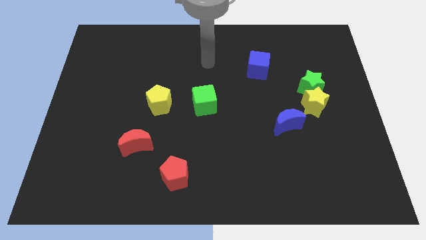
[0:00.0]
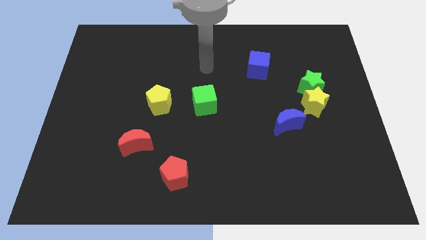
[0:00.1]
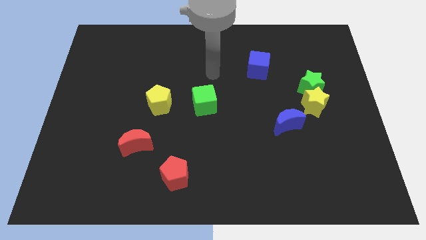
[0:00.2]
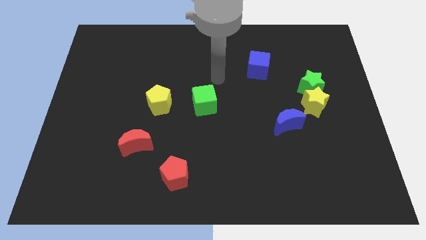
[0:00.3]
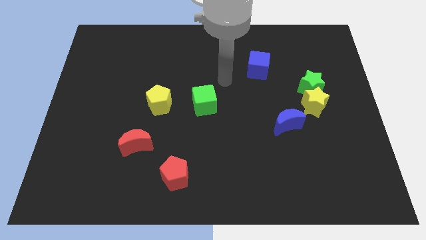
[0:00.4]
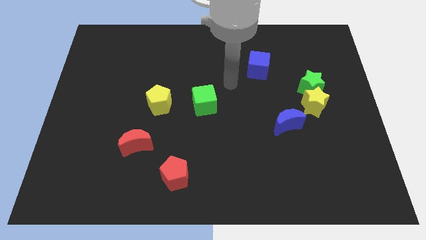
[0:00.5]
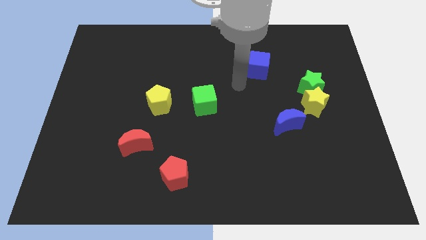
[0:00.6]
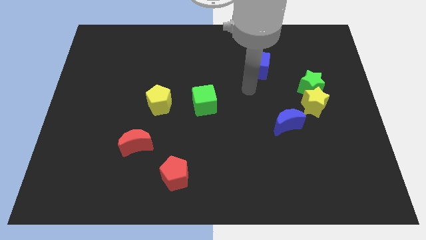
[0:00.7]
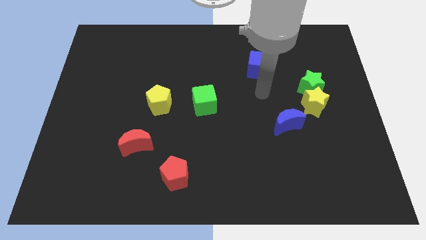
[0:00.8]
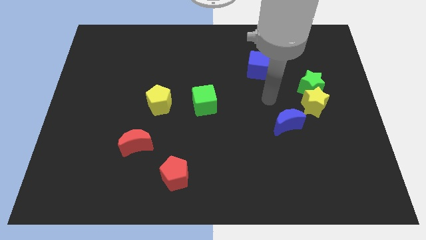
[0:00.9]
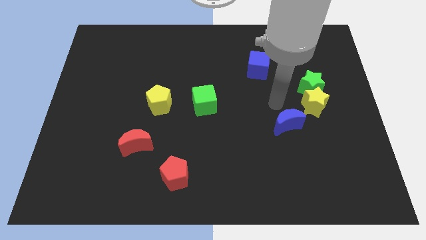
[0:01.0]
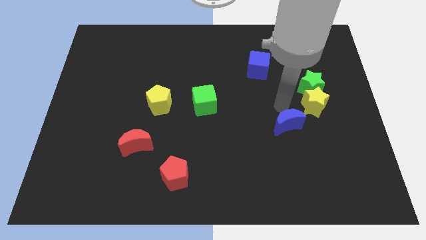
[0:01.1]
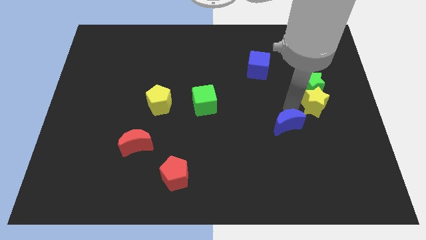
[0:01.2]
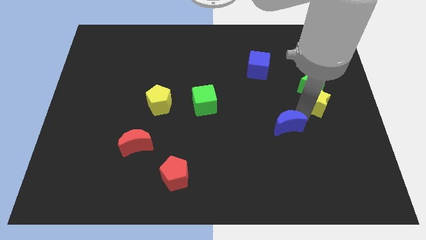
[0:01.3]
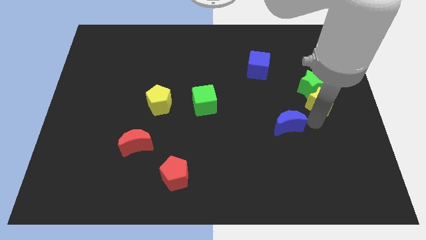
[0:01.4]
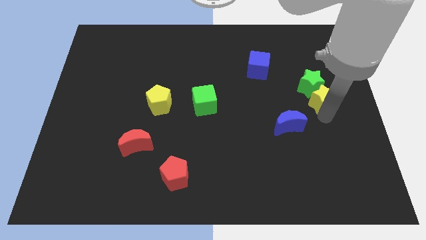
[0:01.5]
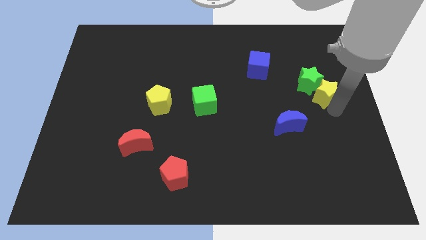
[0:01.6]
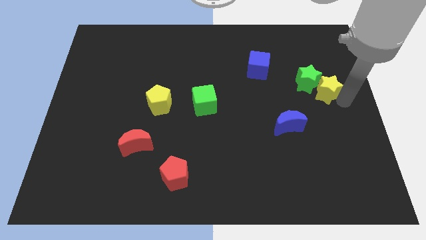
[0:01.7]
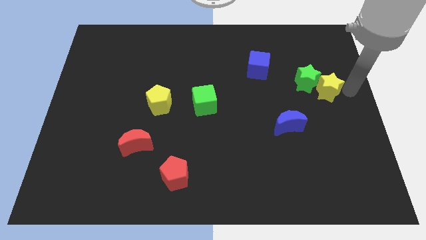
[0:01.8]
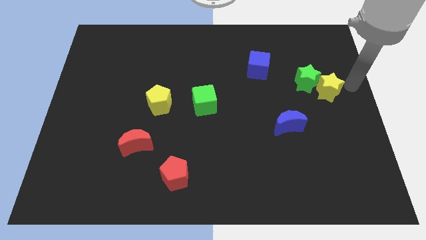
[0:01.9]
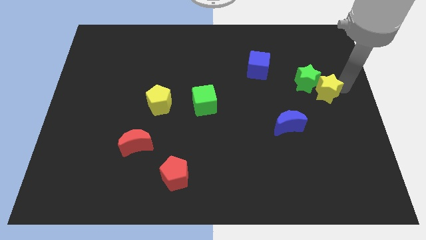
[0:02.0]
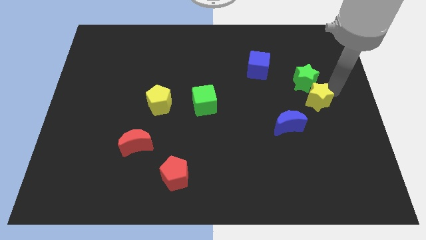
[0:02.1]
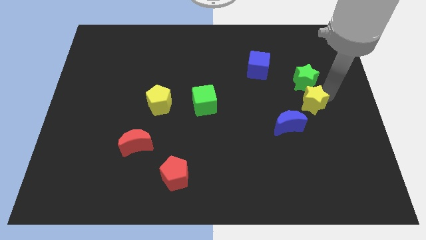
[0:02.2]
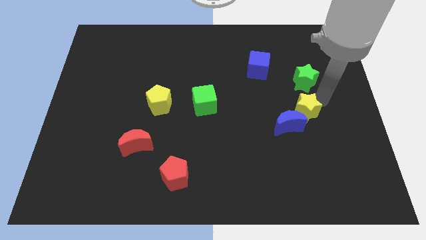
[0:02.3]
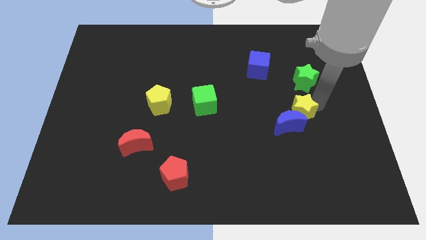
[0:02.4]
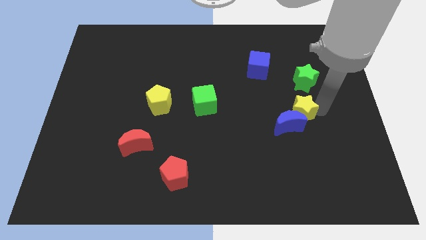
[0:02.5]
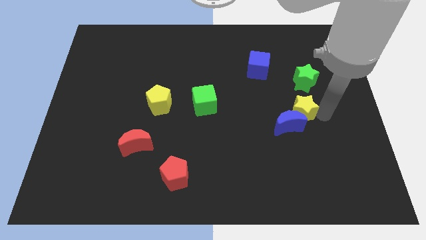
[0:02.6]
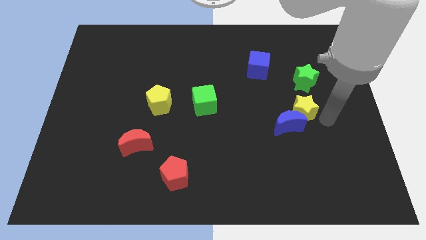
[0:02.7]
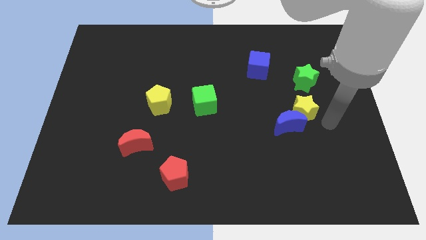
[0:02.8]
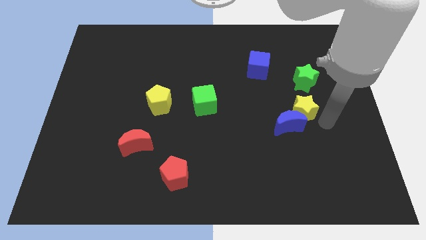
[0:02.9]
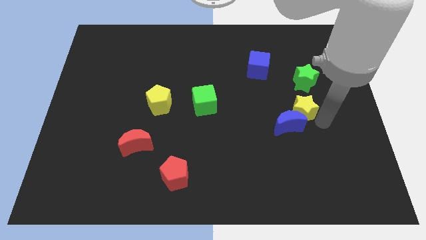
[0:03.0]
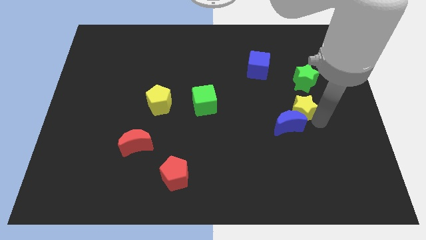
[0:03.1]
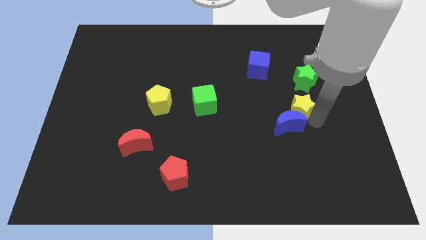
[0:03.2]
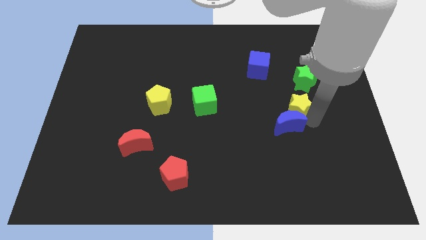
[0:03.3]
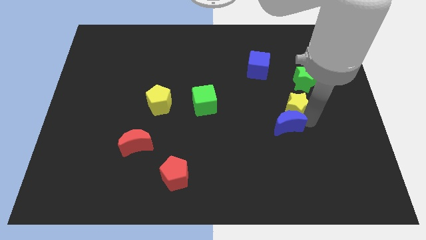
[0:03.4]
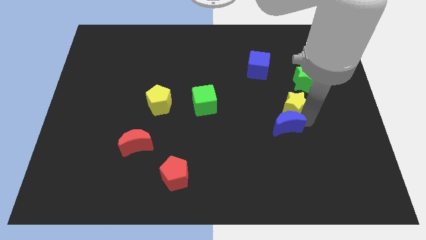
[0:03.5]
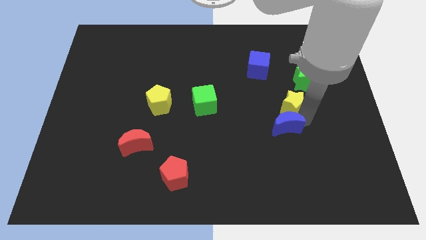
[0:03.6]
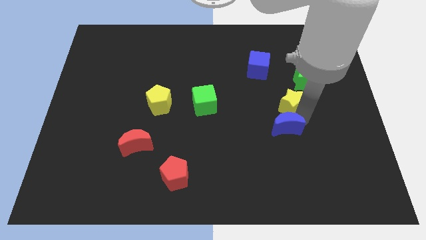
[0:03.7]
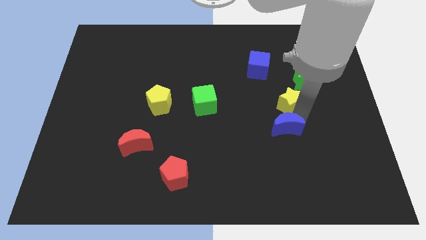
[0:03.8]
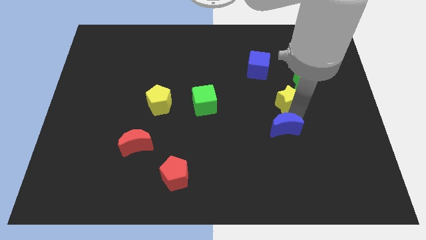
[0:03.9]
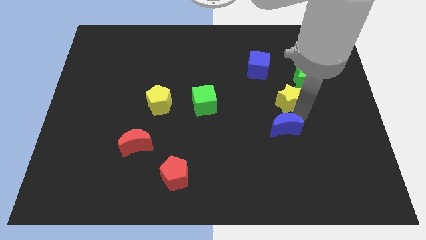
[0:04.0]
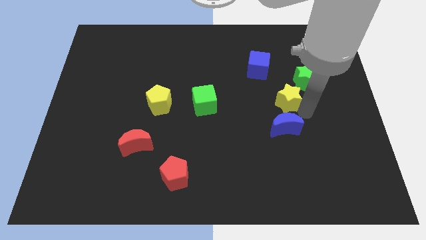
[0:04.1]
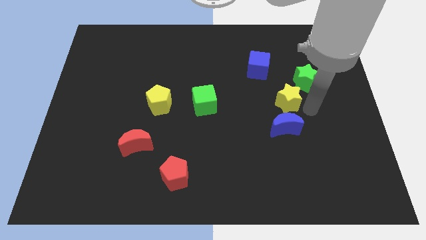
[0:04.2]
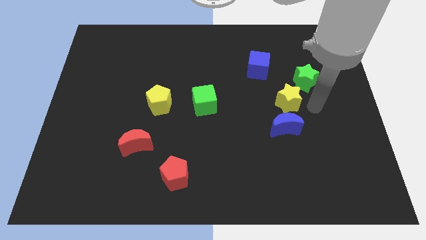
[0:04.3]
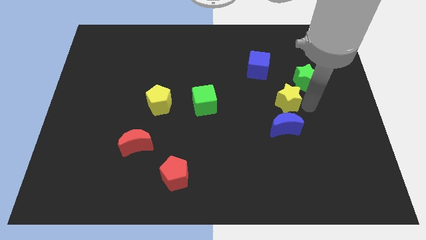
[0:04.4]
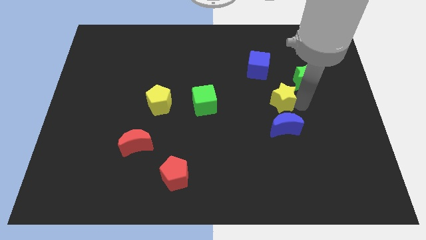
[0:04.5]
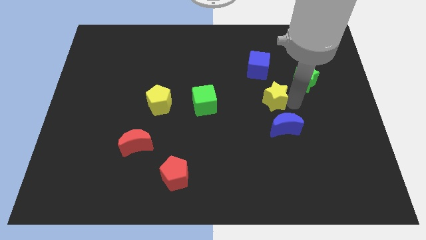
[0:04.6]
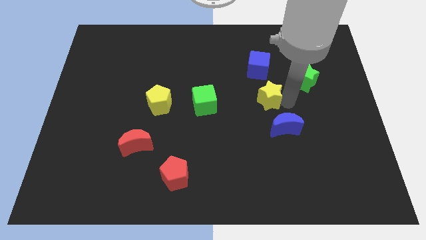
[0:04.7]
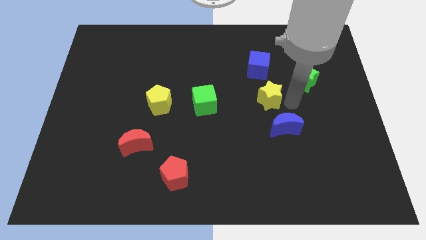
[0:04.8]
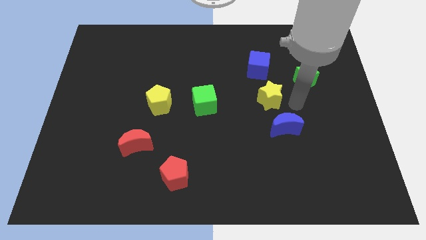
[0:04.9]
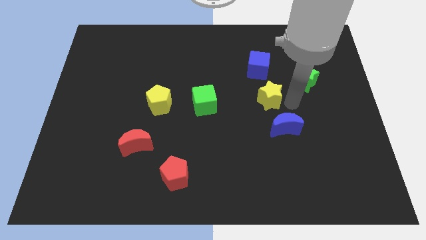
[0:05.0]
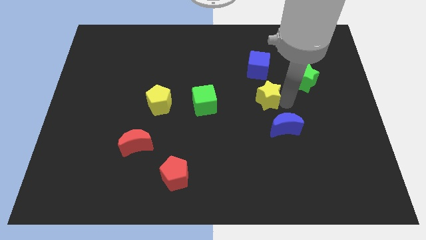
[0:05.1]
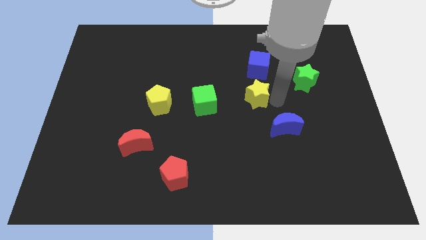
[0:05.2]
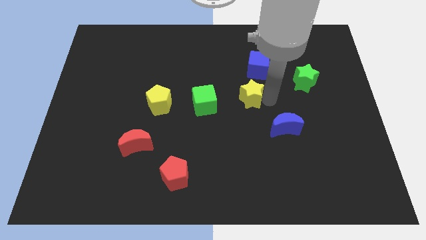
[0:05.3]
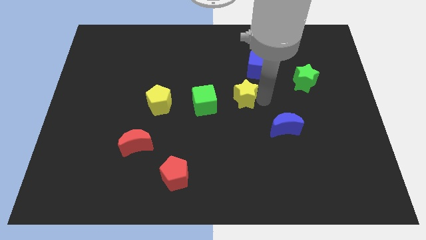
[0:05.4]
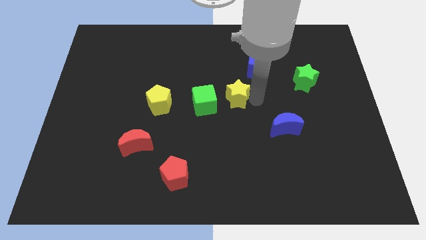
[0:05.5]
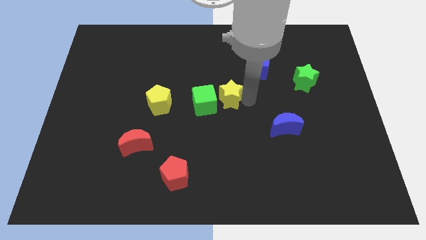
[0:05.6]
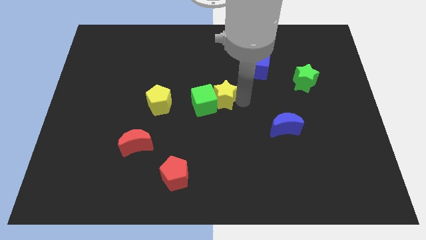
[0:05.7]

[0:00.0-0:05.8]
push the yellow star left

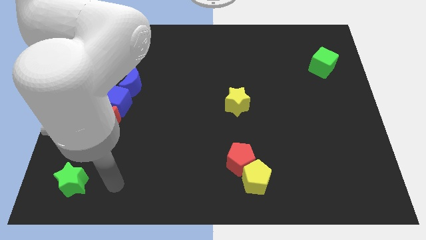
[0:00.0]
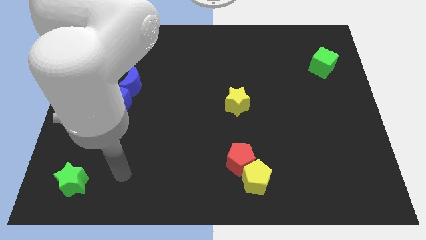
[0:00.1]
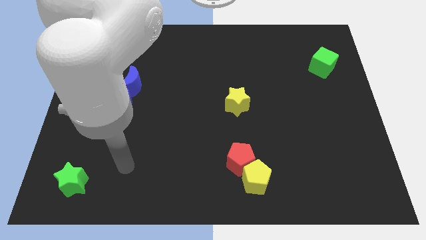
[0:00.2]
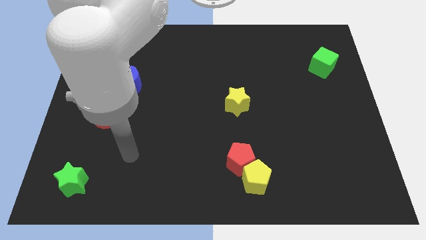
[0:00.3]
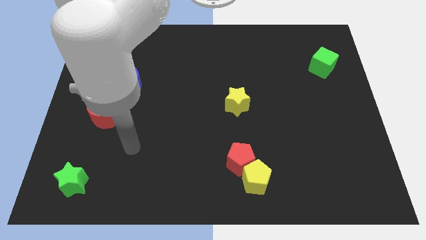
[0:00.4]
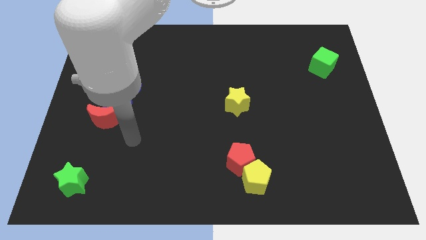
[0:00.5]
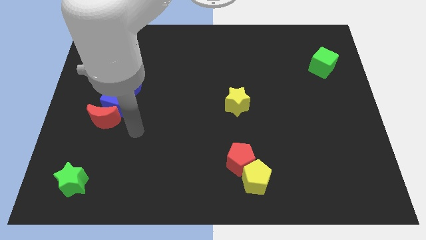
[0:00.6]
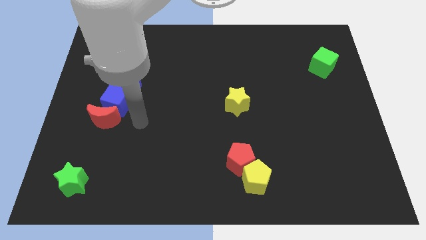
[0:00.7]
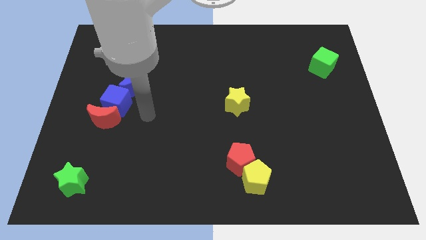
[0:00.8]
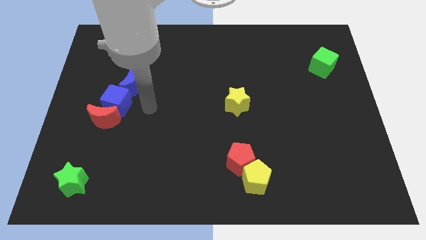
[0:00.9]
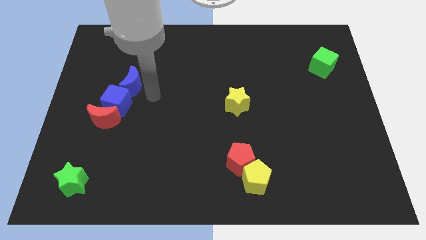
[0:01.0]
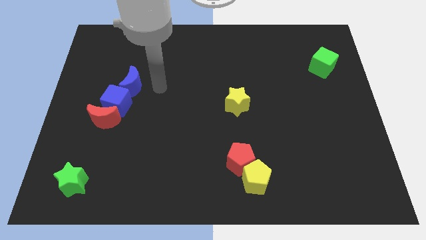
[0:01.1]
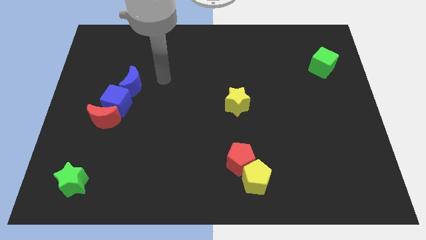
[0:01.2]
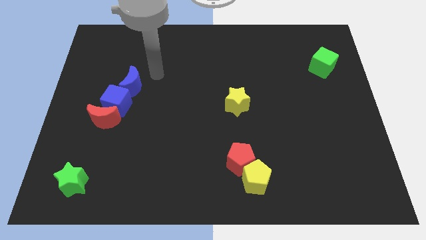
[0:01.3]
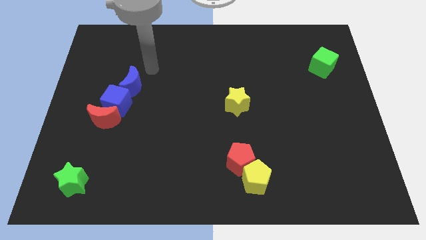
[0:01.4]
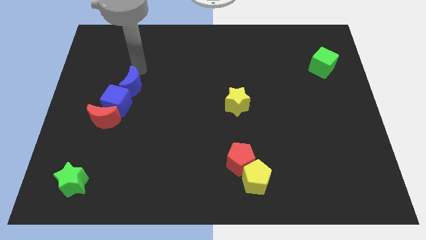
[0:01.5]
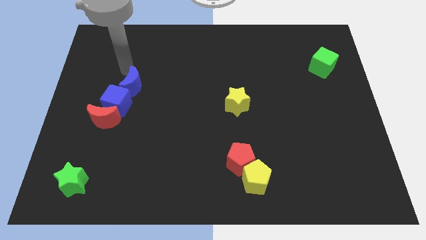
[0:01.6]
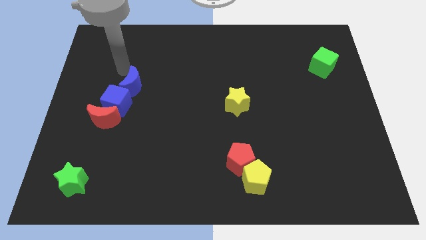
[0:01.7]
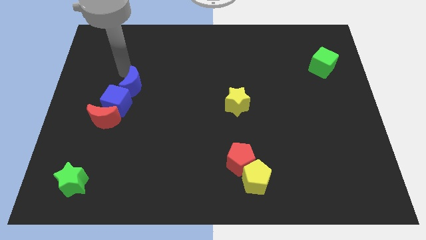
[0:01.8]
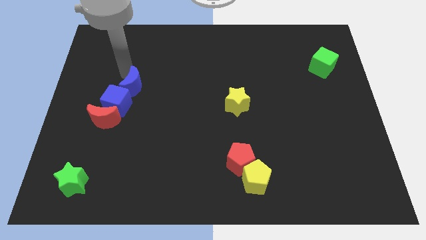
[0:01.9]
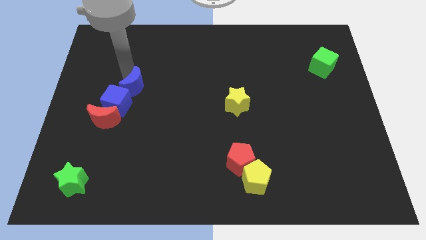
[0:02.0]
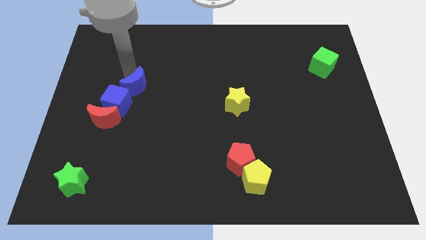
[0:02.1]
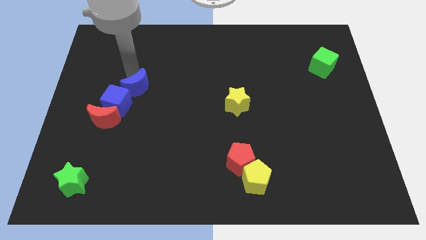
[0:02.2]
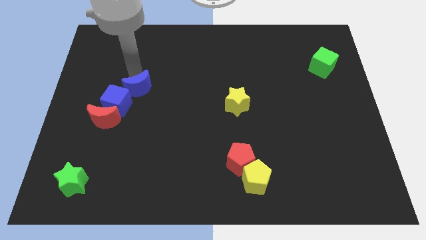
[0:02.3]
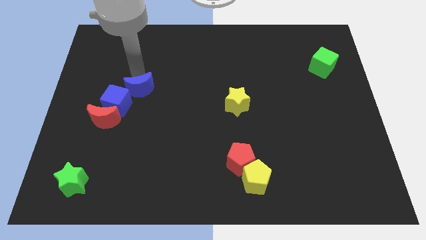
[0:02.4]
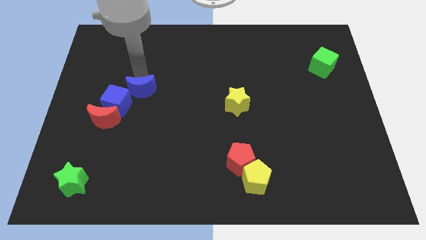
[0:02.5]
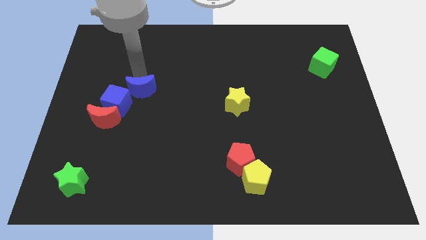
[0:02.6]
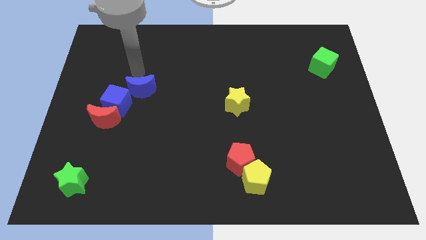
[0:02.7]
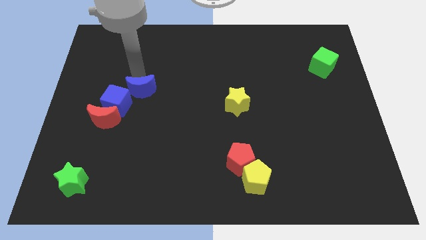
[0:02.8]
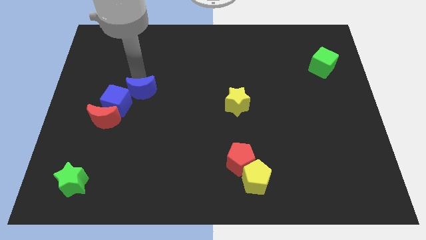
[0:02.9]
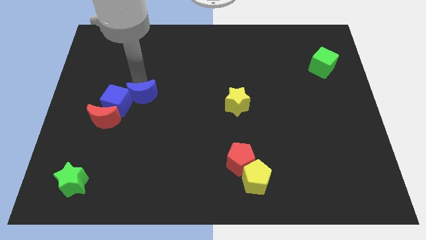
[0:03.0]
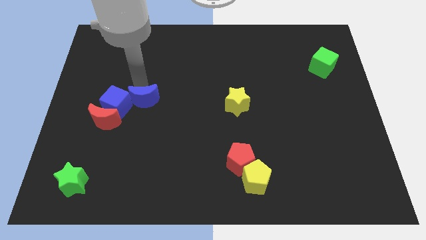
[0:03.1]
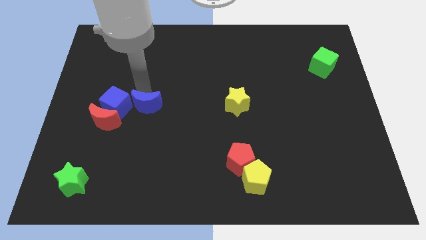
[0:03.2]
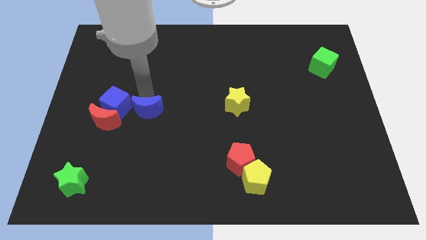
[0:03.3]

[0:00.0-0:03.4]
slide the blue moon a little down
